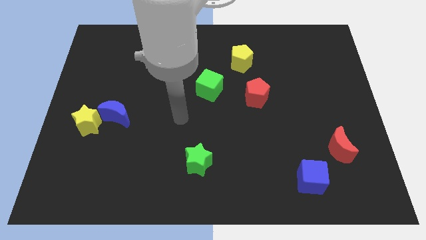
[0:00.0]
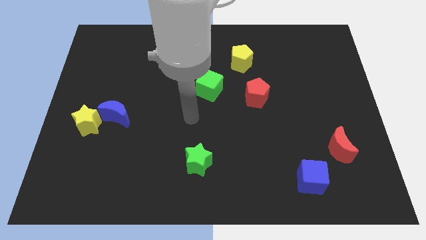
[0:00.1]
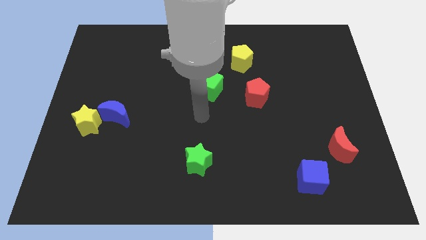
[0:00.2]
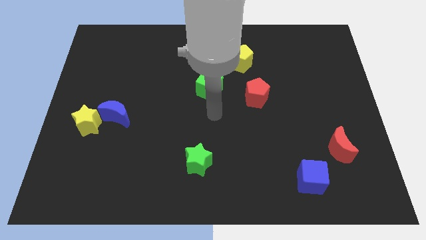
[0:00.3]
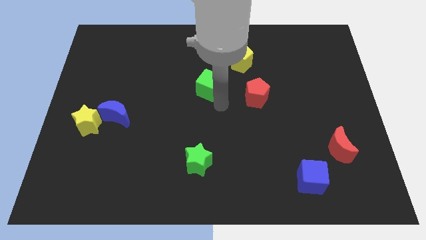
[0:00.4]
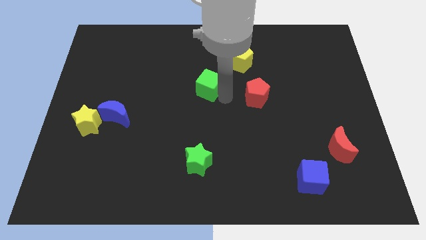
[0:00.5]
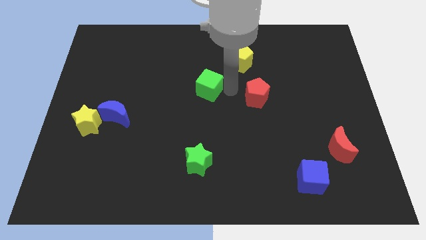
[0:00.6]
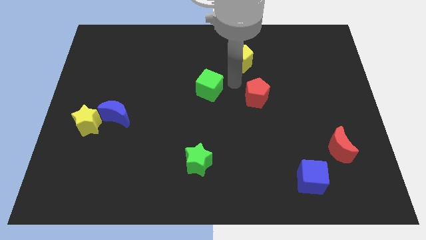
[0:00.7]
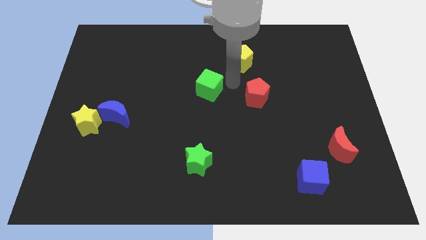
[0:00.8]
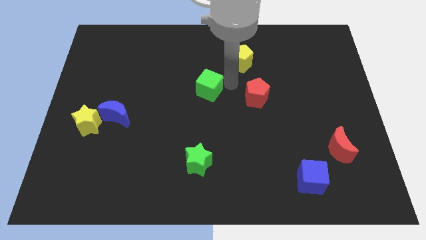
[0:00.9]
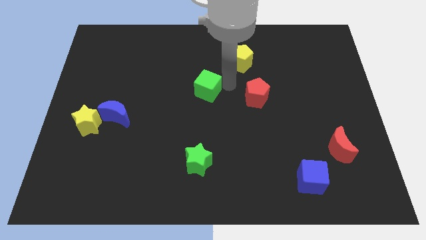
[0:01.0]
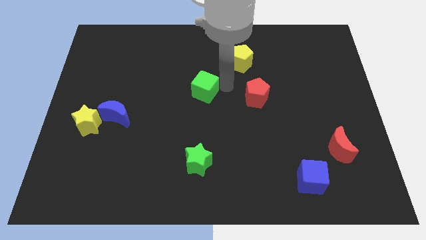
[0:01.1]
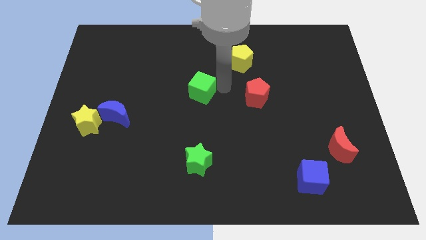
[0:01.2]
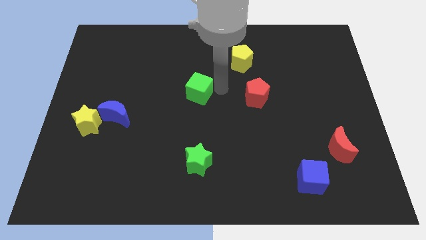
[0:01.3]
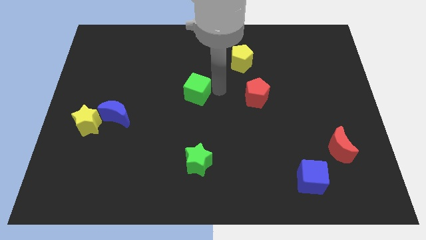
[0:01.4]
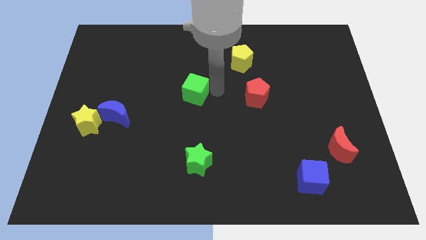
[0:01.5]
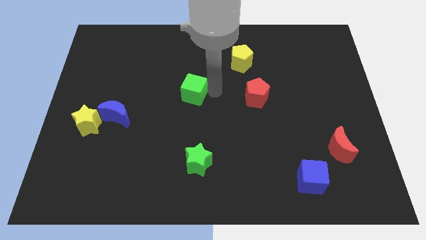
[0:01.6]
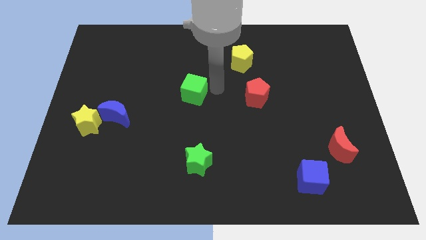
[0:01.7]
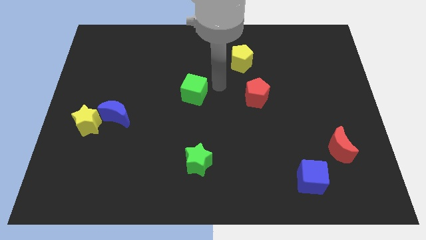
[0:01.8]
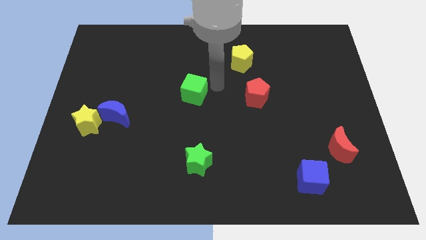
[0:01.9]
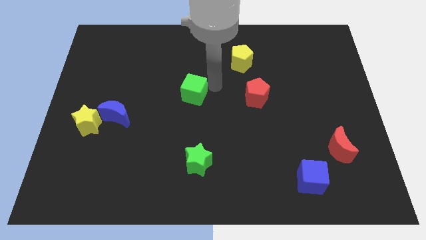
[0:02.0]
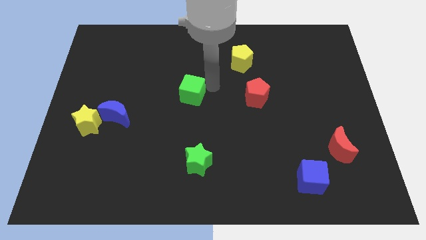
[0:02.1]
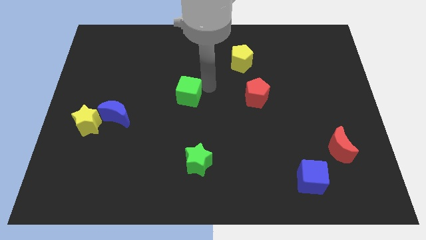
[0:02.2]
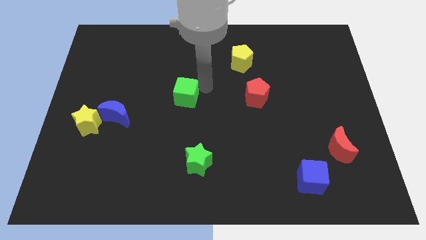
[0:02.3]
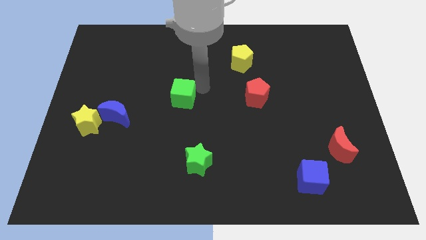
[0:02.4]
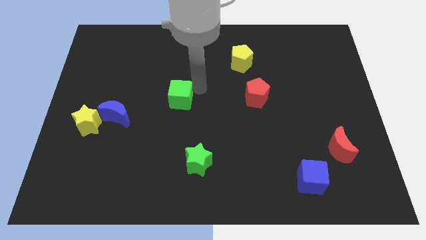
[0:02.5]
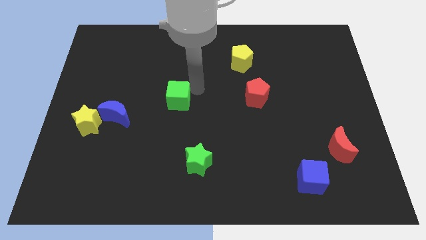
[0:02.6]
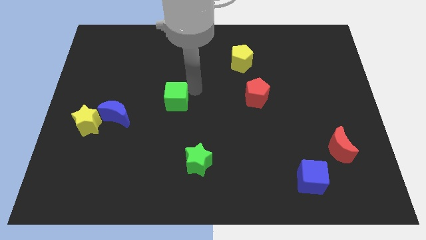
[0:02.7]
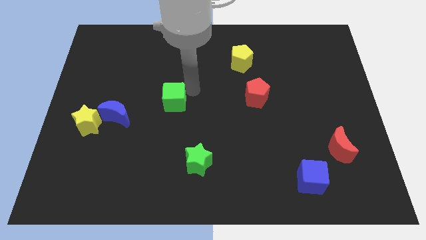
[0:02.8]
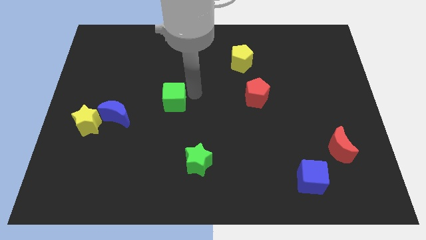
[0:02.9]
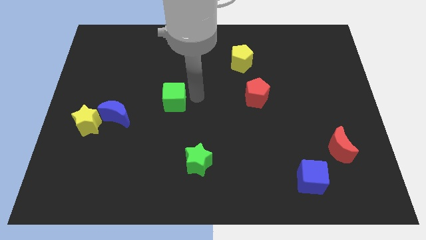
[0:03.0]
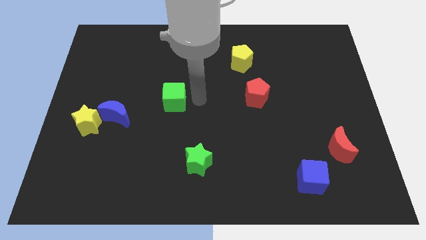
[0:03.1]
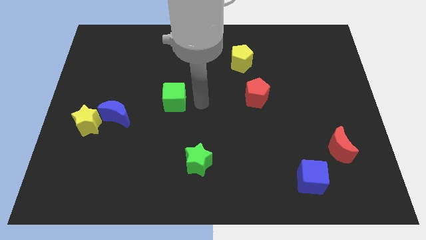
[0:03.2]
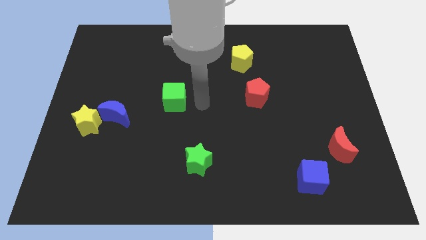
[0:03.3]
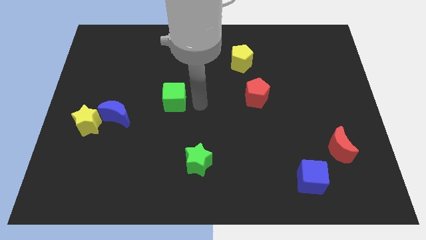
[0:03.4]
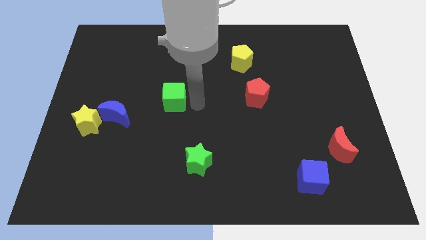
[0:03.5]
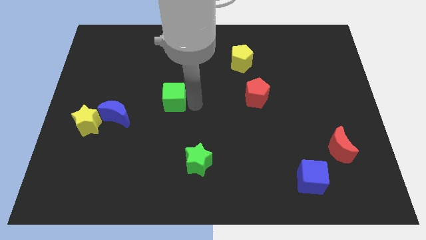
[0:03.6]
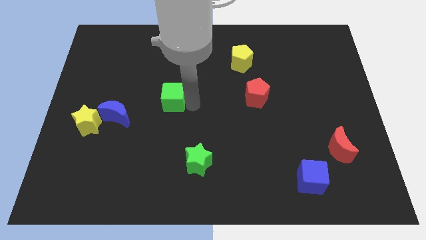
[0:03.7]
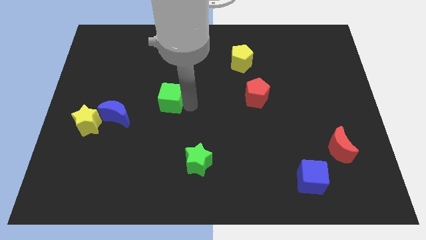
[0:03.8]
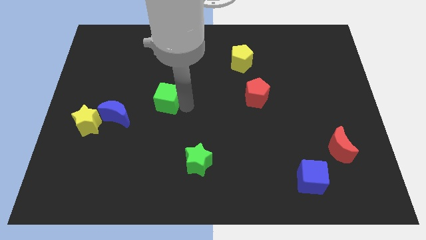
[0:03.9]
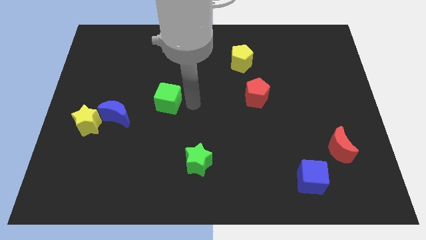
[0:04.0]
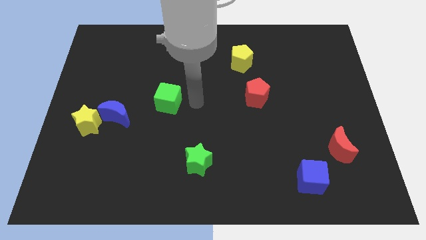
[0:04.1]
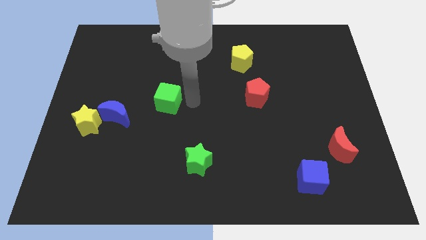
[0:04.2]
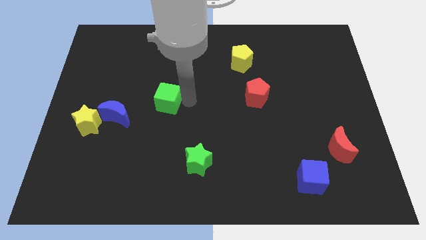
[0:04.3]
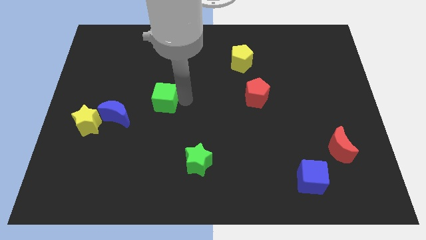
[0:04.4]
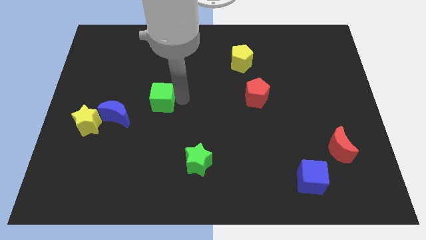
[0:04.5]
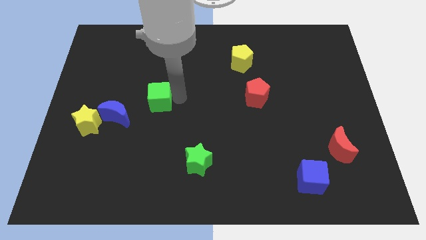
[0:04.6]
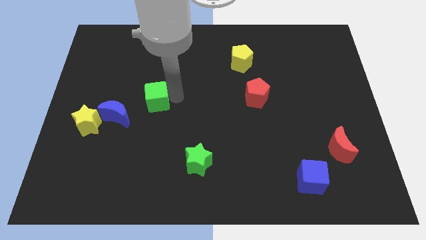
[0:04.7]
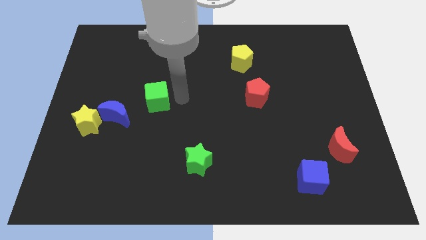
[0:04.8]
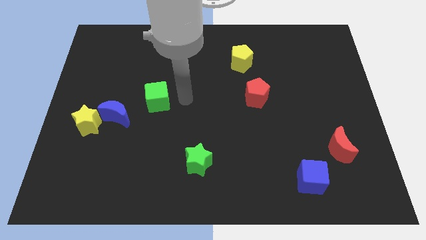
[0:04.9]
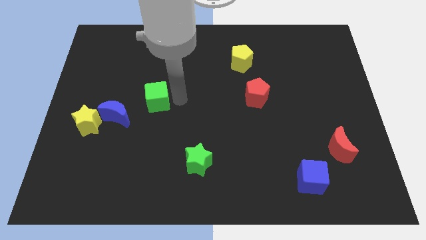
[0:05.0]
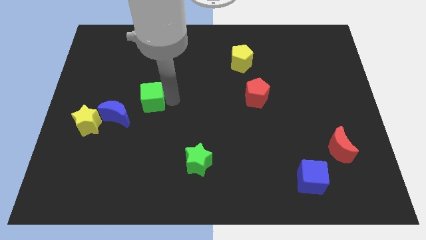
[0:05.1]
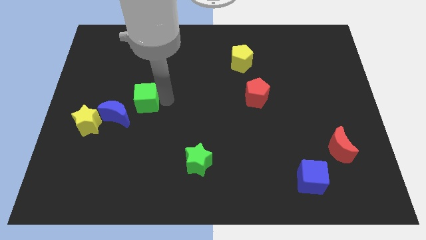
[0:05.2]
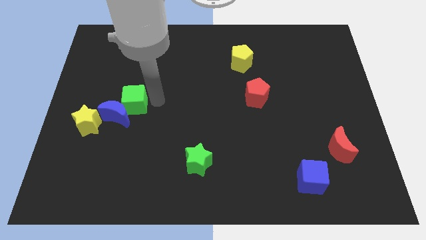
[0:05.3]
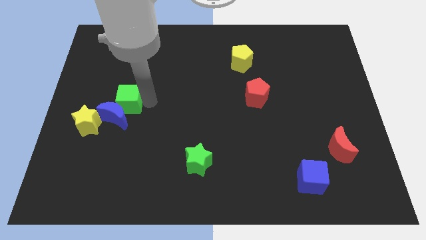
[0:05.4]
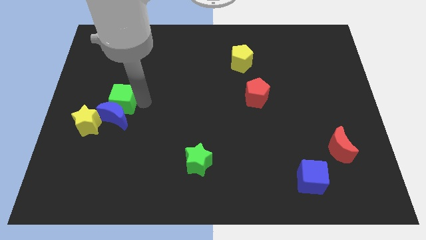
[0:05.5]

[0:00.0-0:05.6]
move the green cube diagonally up and to the left of the blue moon

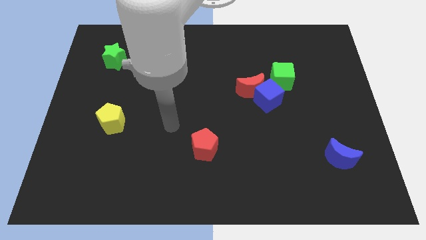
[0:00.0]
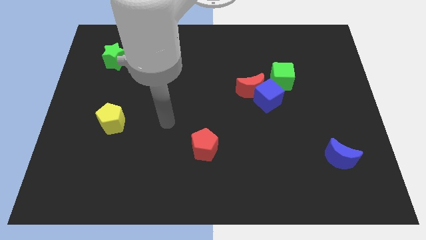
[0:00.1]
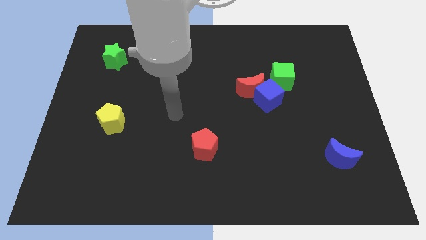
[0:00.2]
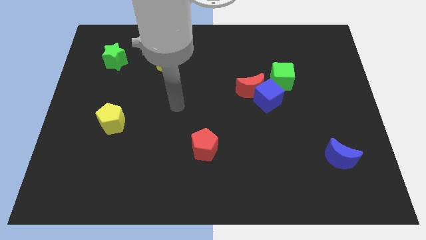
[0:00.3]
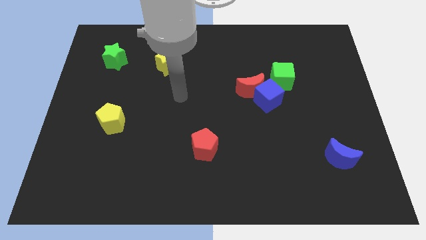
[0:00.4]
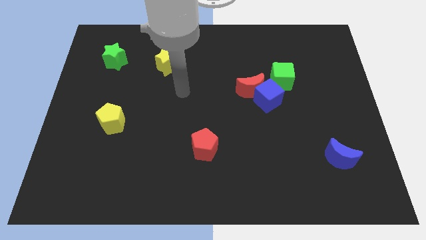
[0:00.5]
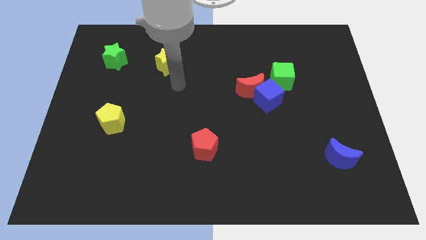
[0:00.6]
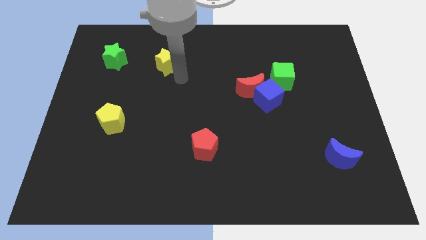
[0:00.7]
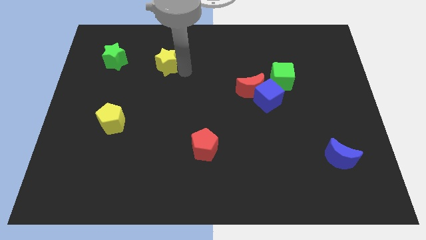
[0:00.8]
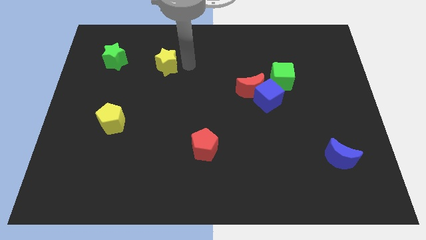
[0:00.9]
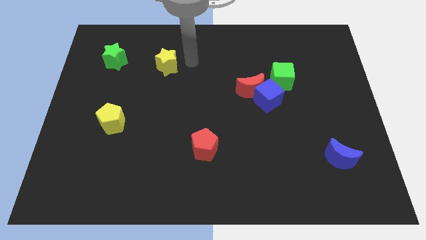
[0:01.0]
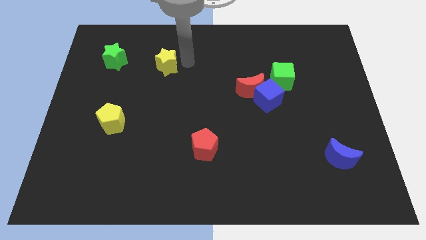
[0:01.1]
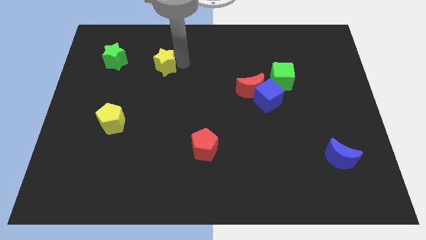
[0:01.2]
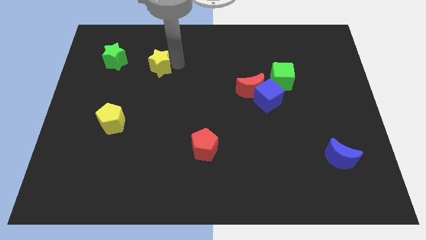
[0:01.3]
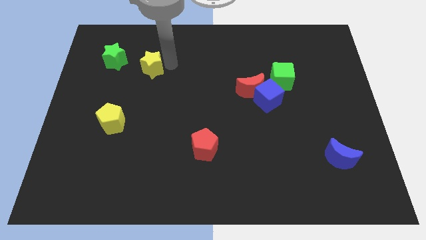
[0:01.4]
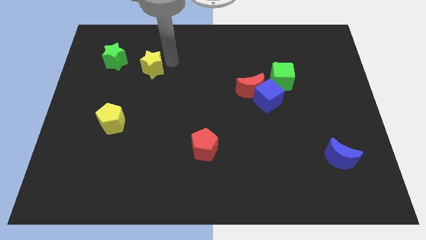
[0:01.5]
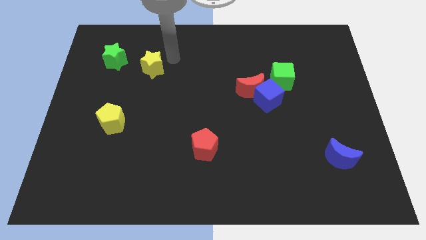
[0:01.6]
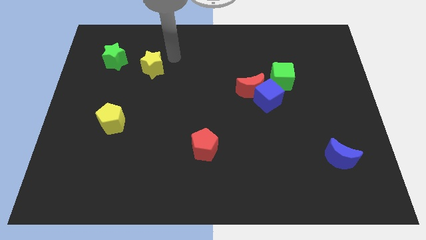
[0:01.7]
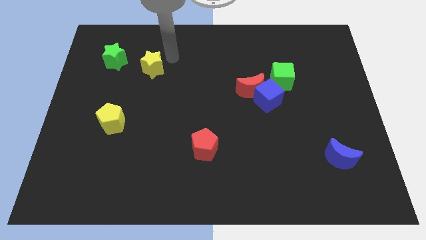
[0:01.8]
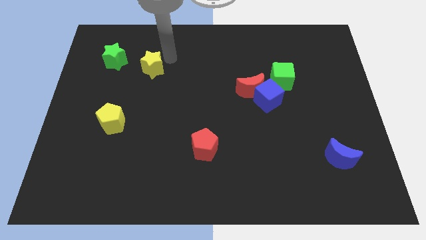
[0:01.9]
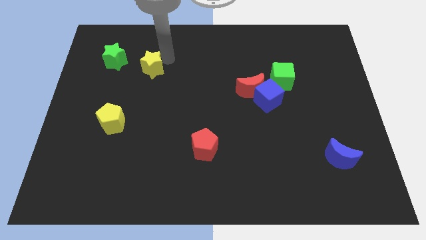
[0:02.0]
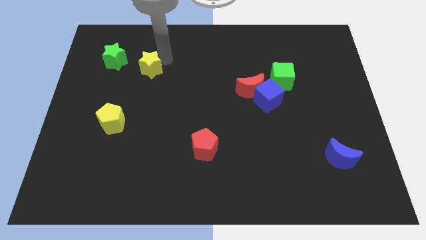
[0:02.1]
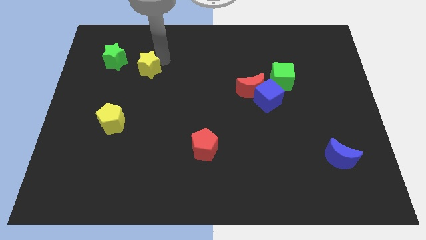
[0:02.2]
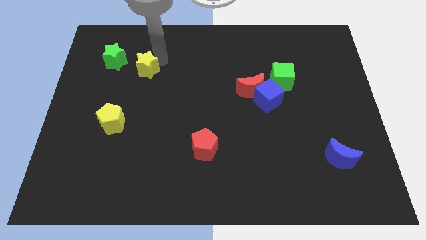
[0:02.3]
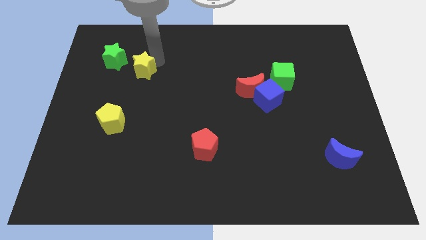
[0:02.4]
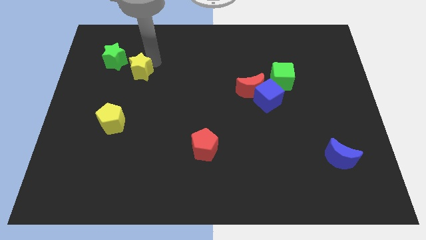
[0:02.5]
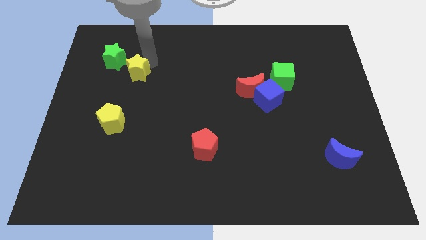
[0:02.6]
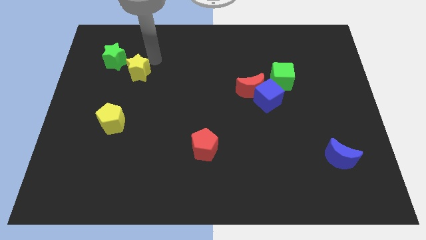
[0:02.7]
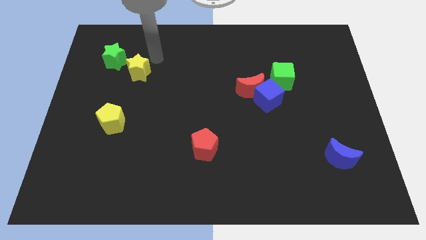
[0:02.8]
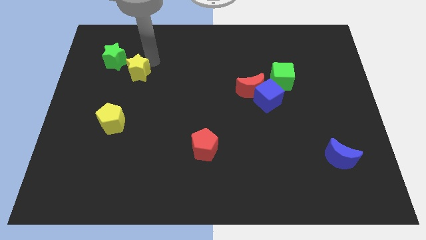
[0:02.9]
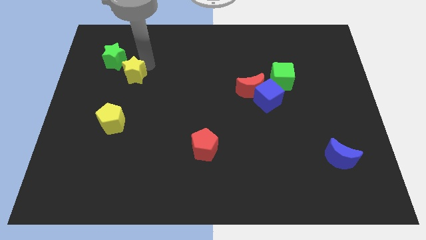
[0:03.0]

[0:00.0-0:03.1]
slide the yellow star to the top side of the yellow pentagon
